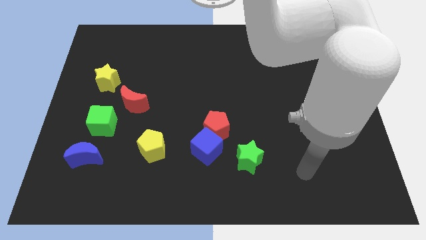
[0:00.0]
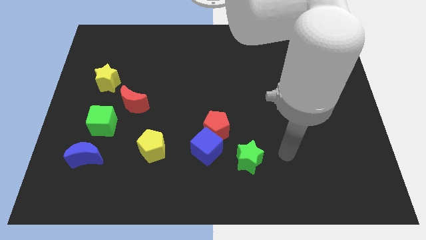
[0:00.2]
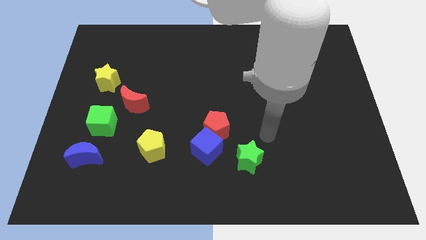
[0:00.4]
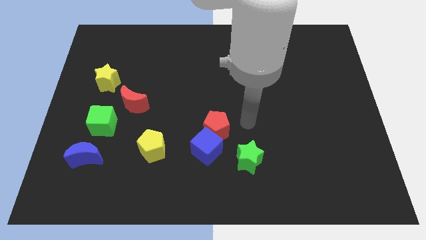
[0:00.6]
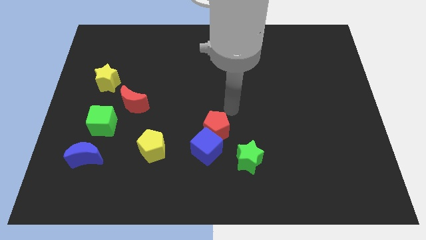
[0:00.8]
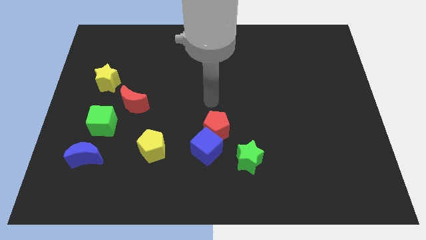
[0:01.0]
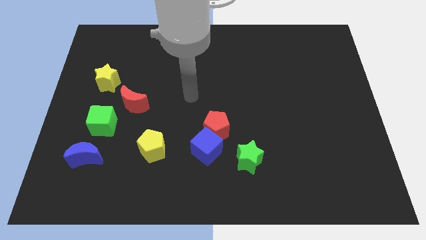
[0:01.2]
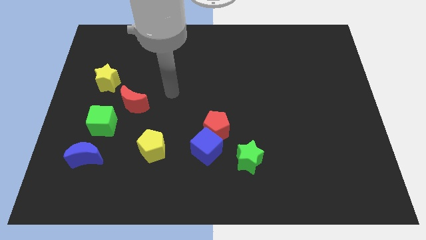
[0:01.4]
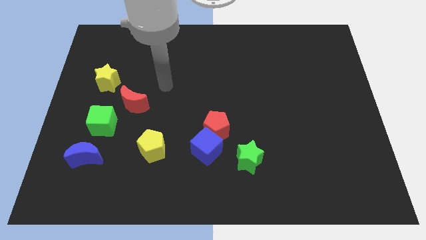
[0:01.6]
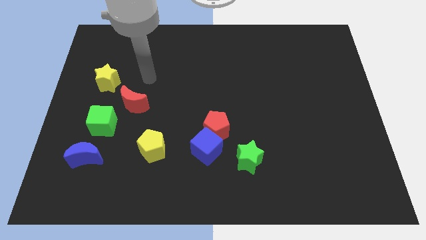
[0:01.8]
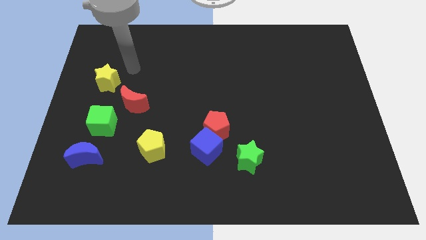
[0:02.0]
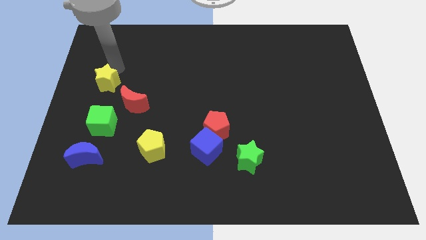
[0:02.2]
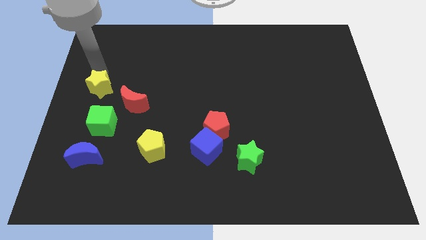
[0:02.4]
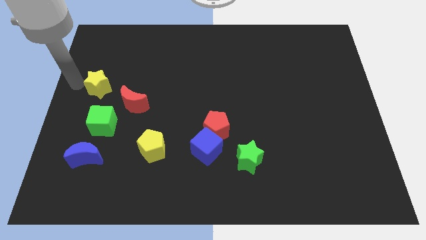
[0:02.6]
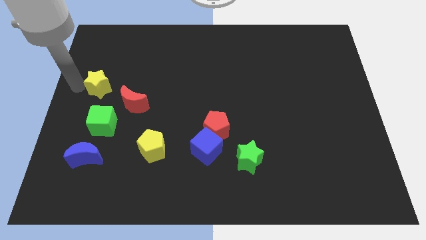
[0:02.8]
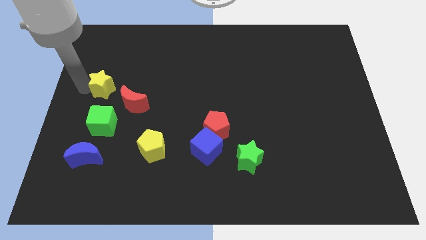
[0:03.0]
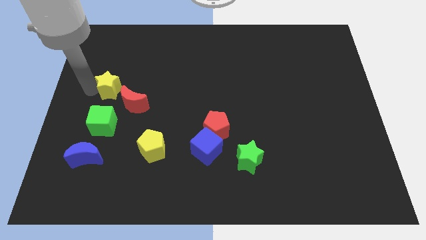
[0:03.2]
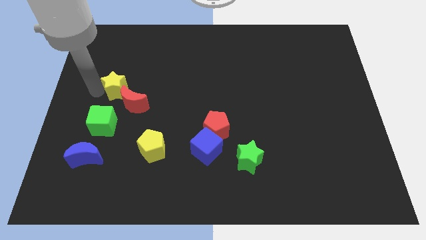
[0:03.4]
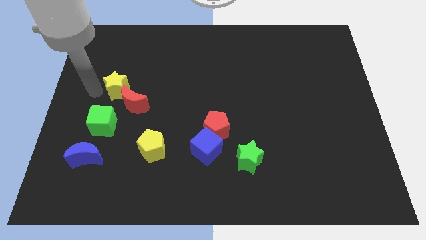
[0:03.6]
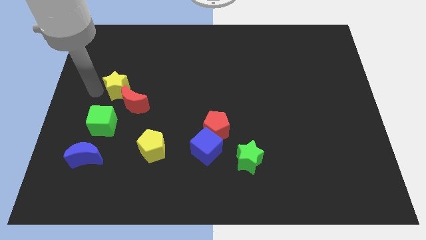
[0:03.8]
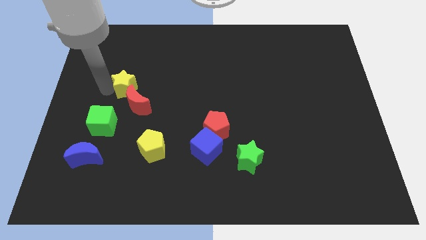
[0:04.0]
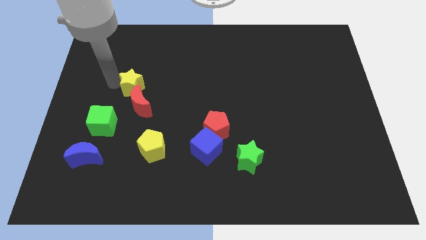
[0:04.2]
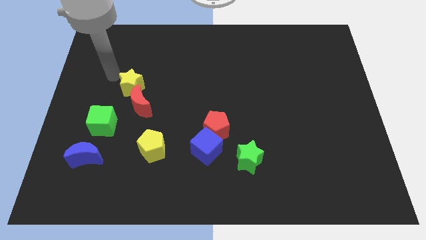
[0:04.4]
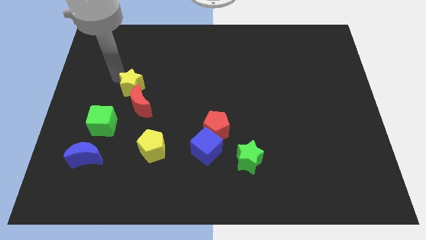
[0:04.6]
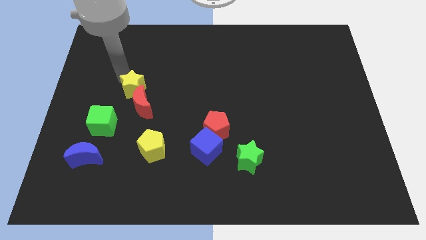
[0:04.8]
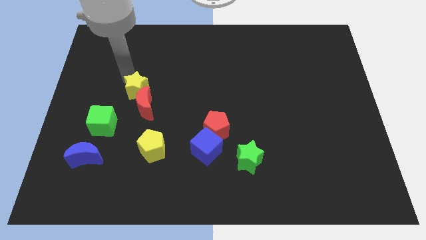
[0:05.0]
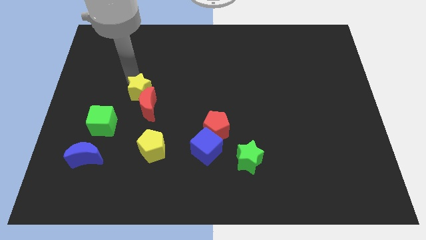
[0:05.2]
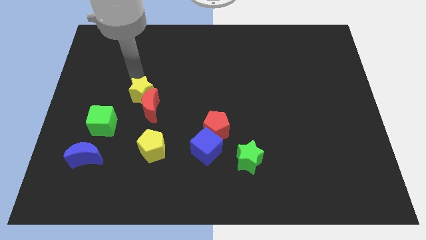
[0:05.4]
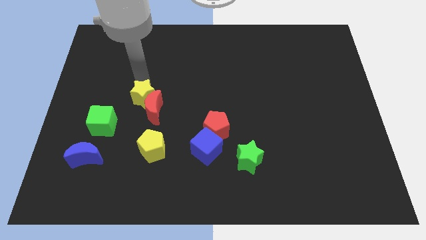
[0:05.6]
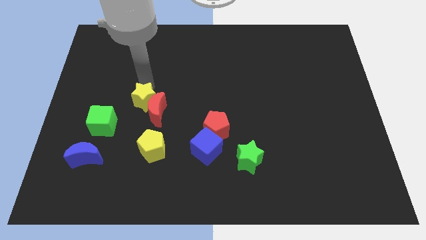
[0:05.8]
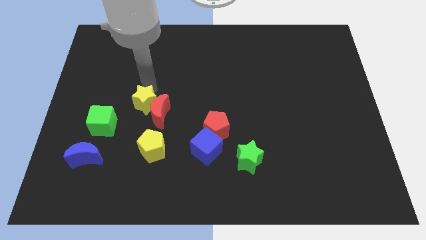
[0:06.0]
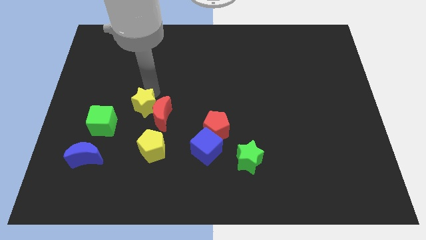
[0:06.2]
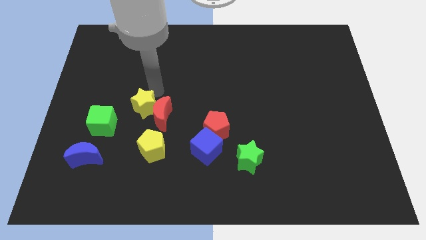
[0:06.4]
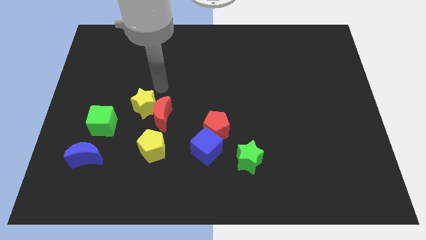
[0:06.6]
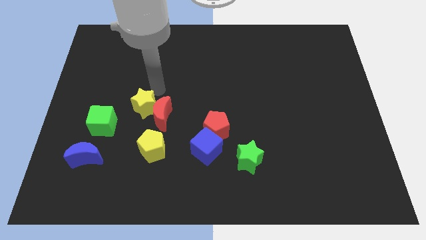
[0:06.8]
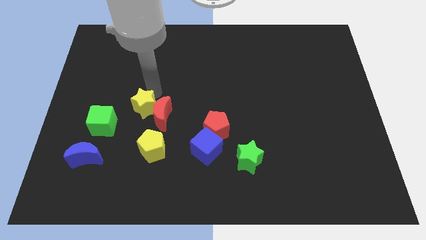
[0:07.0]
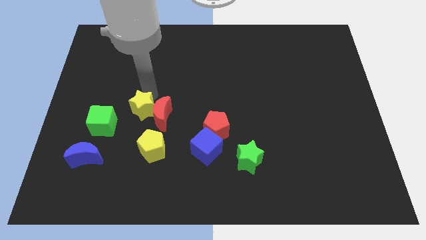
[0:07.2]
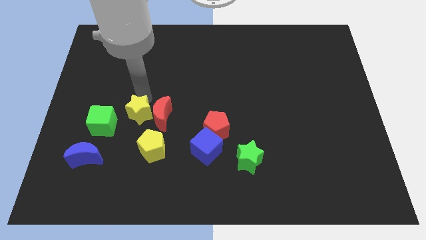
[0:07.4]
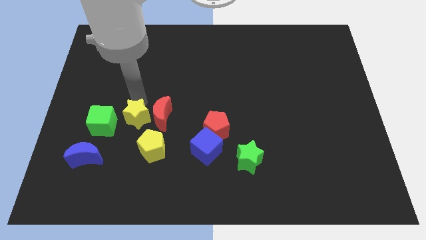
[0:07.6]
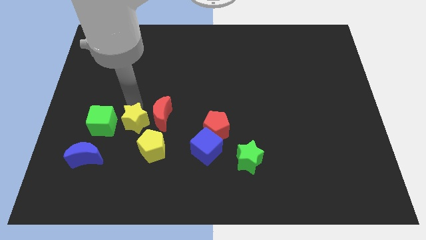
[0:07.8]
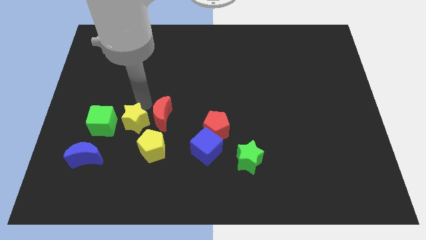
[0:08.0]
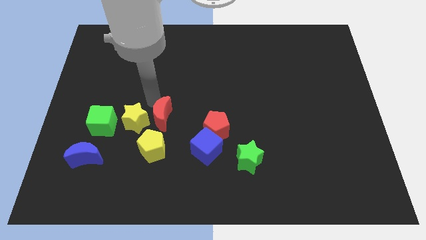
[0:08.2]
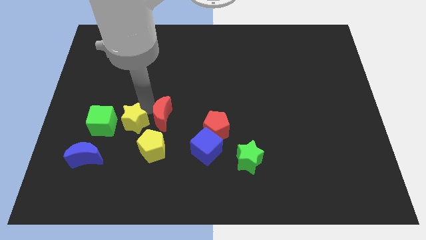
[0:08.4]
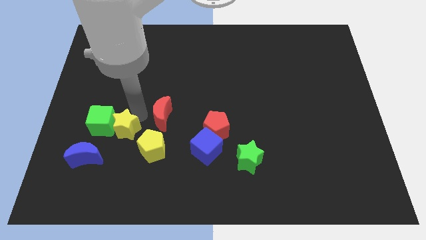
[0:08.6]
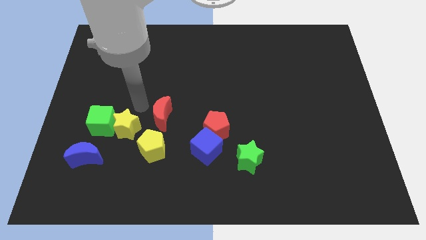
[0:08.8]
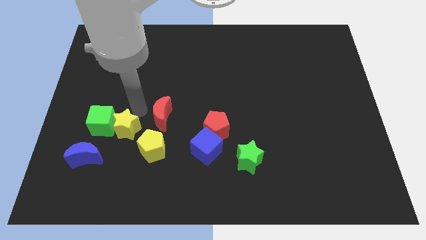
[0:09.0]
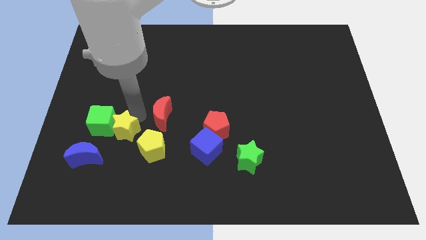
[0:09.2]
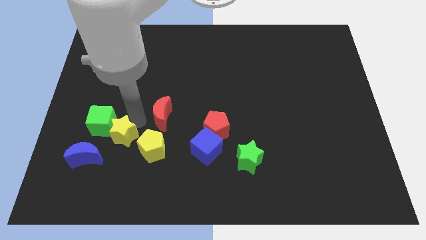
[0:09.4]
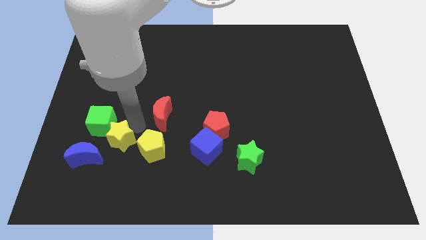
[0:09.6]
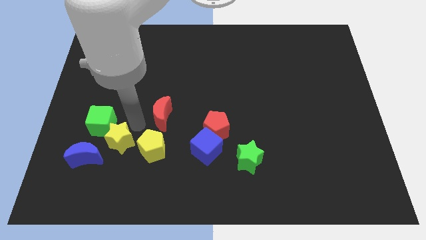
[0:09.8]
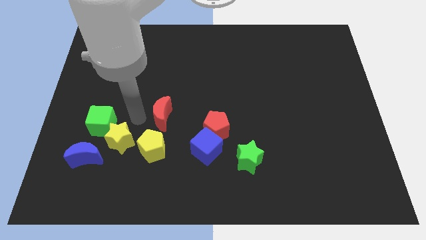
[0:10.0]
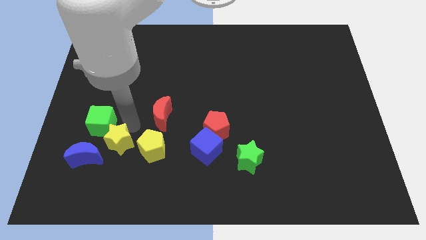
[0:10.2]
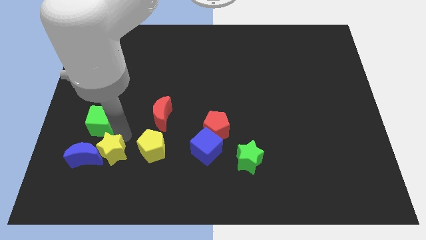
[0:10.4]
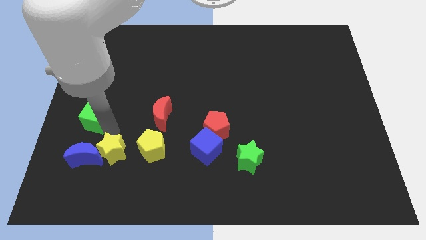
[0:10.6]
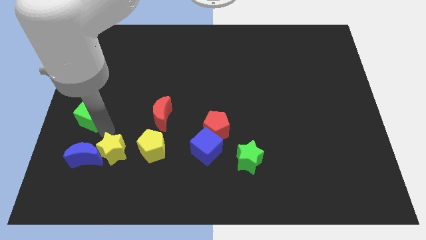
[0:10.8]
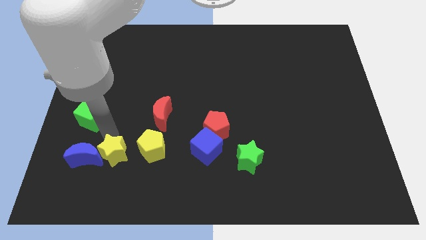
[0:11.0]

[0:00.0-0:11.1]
put the yellow star diagonally down and to the left of the yellow pentagon

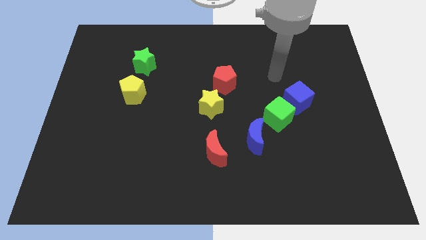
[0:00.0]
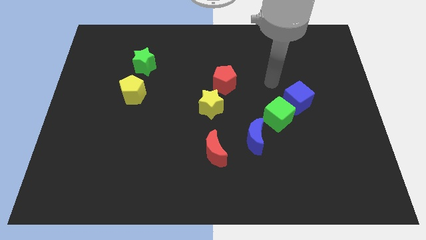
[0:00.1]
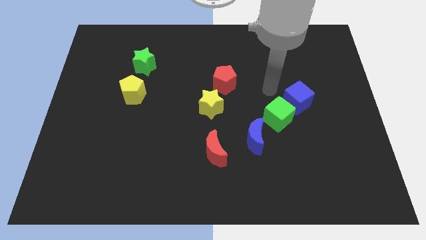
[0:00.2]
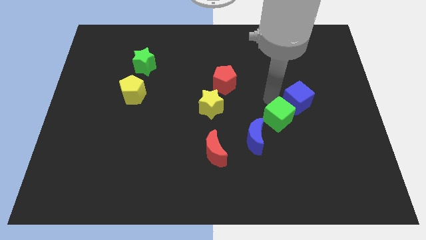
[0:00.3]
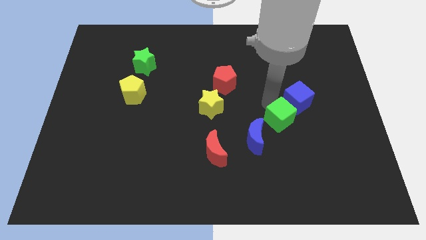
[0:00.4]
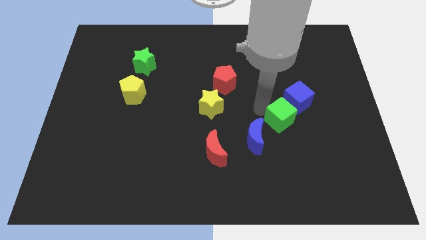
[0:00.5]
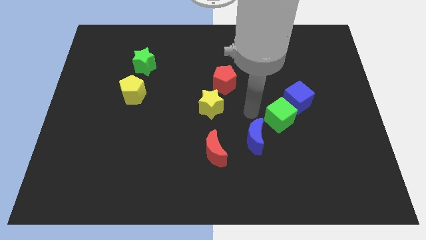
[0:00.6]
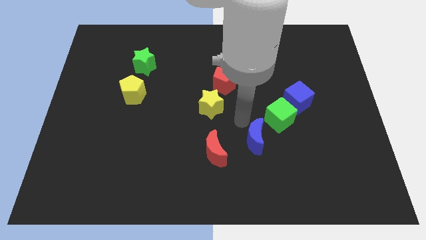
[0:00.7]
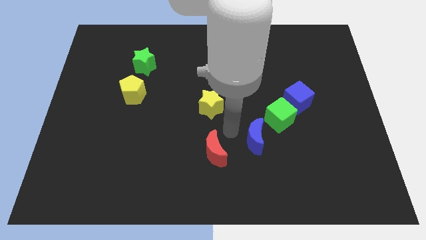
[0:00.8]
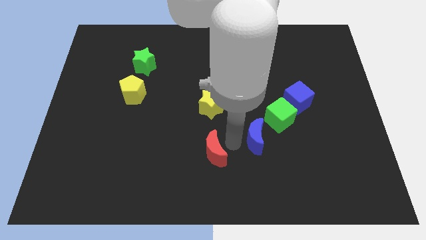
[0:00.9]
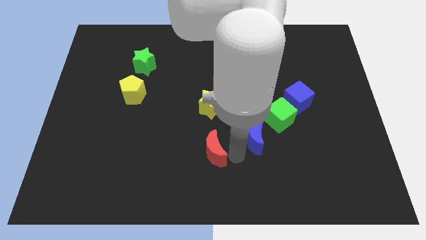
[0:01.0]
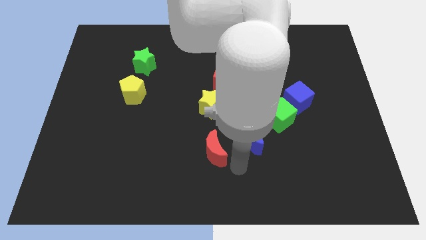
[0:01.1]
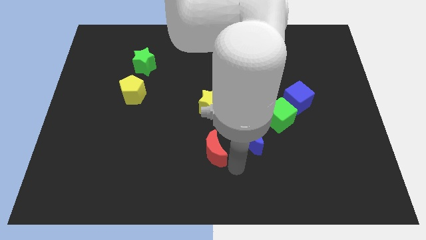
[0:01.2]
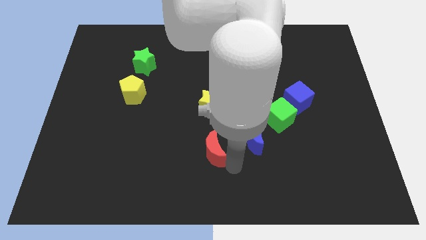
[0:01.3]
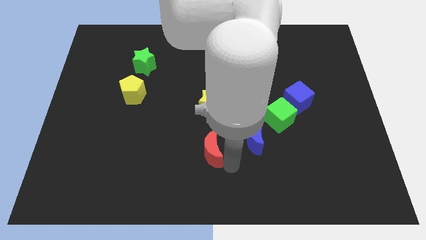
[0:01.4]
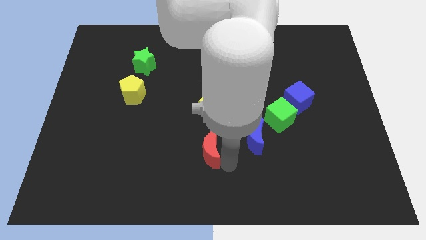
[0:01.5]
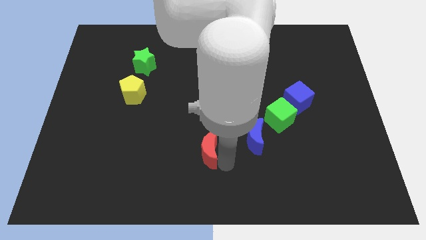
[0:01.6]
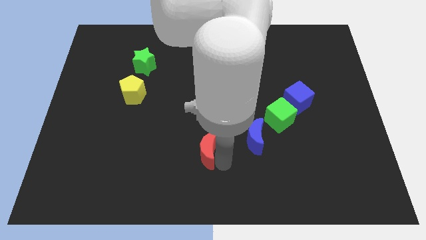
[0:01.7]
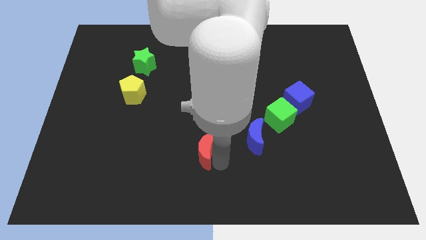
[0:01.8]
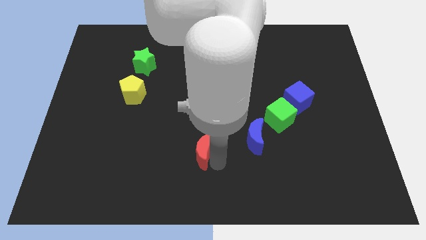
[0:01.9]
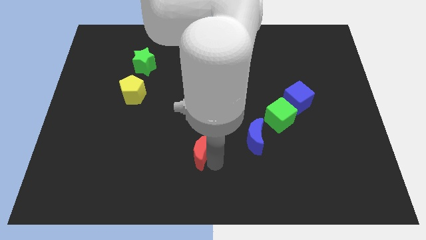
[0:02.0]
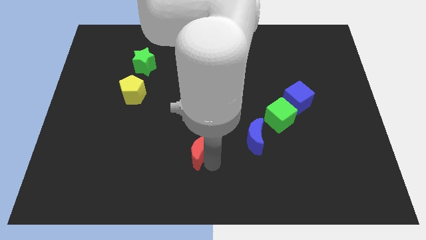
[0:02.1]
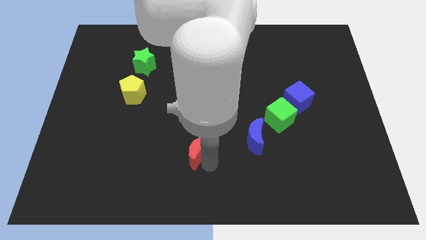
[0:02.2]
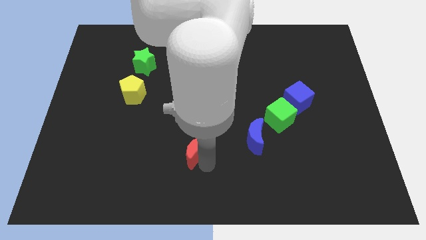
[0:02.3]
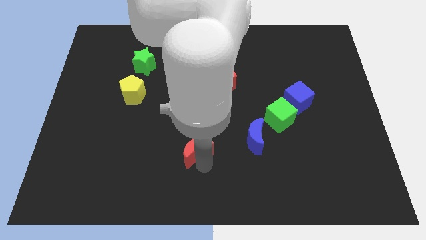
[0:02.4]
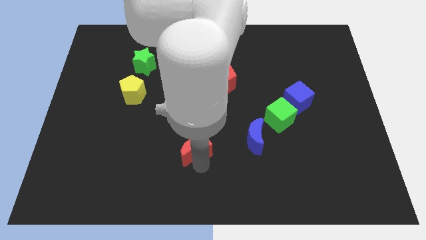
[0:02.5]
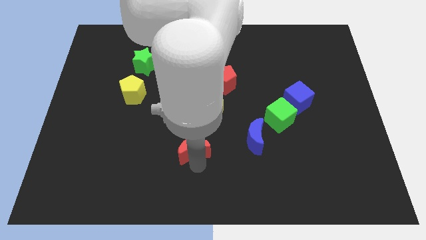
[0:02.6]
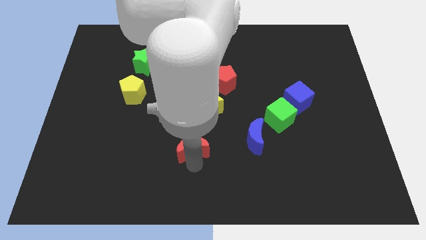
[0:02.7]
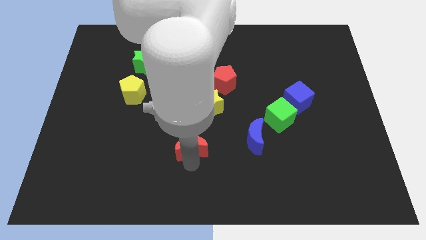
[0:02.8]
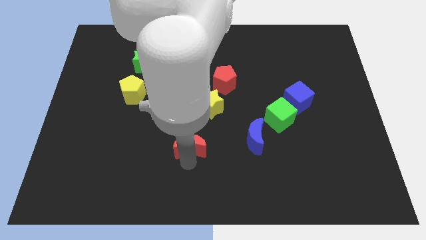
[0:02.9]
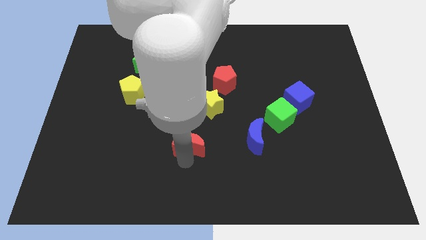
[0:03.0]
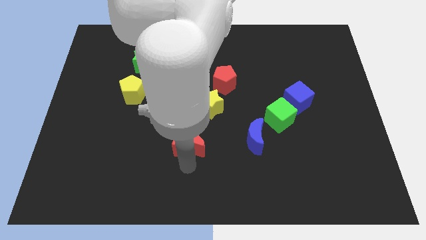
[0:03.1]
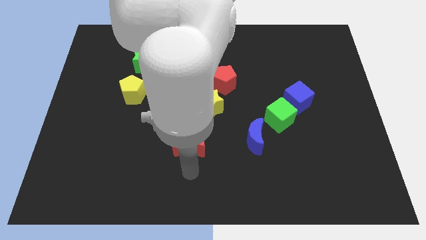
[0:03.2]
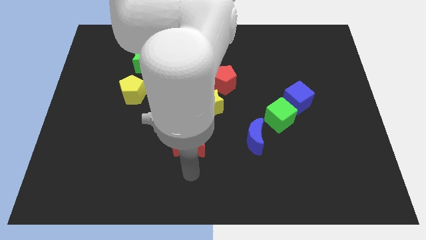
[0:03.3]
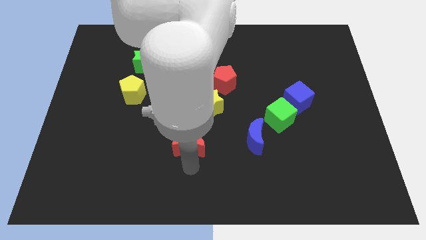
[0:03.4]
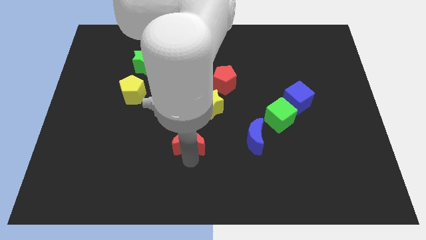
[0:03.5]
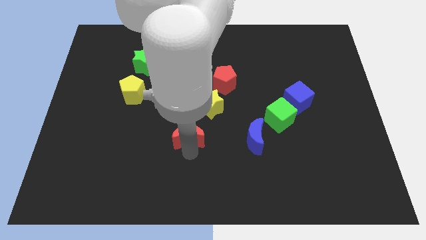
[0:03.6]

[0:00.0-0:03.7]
put the red moon to the bottom left side of the yellow star
